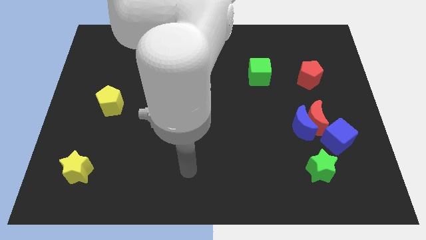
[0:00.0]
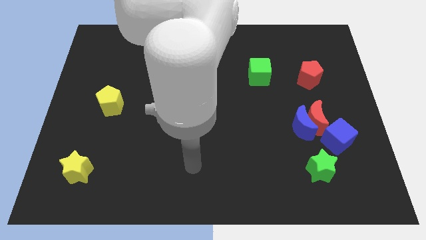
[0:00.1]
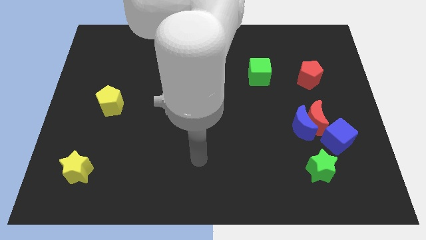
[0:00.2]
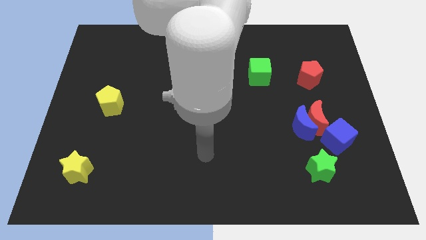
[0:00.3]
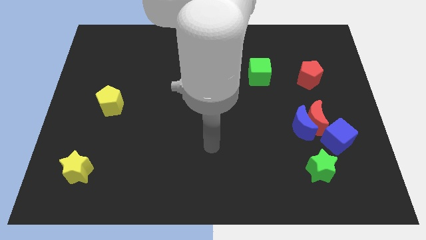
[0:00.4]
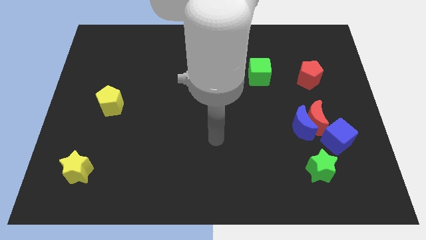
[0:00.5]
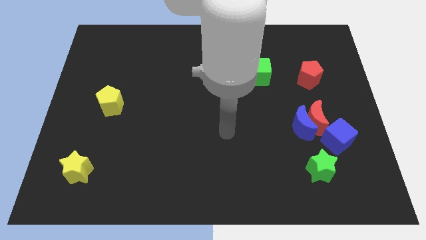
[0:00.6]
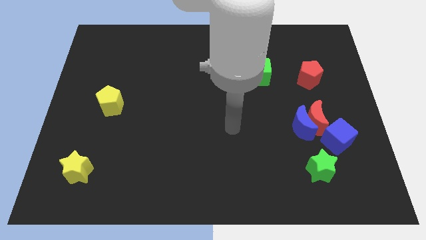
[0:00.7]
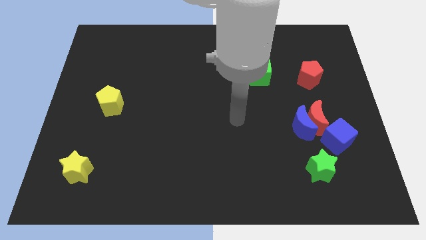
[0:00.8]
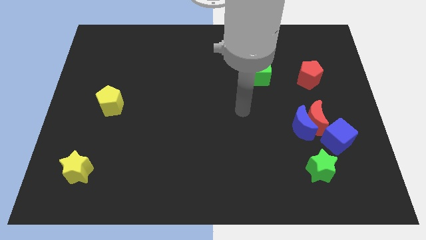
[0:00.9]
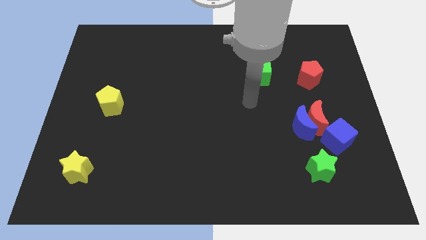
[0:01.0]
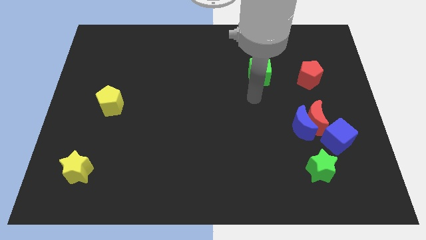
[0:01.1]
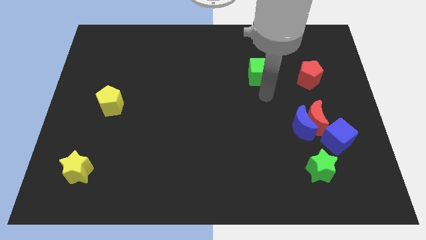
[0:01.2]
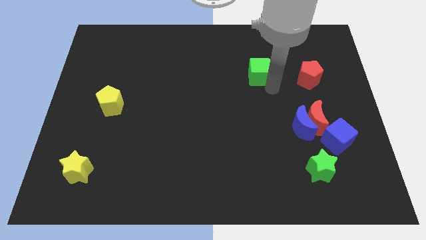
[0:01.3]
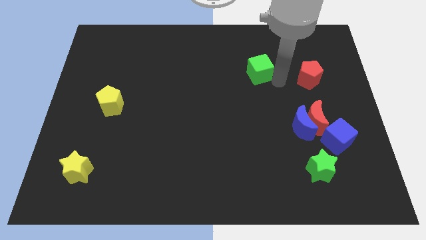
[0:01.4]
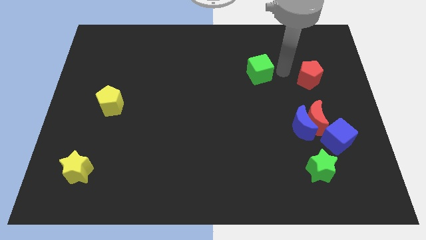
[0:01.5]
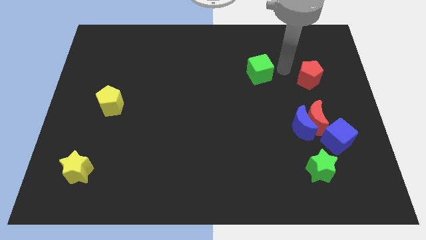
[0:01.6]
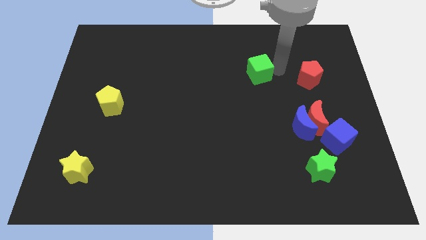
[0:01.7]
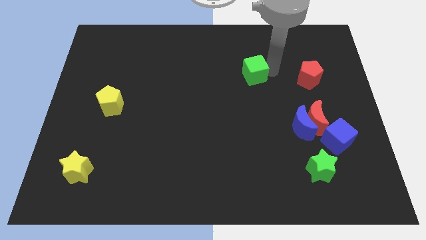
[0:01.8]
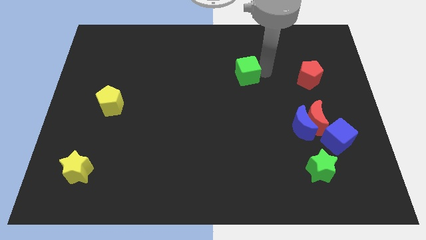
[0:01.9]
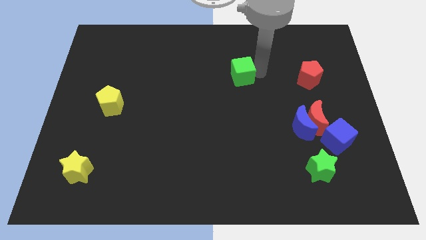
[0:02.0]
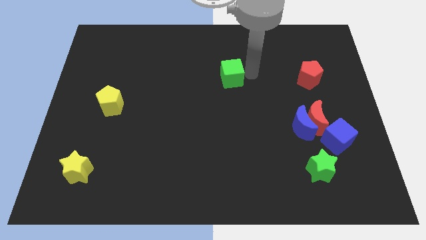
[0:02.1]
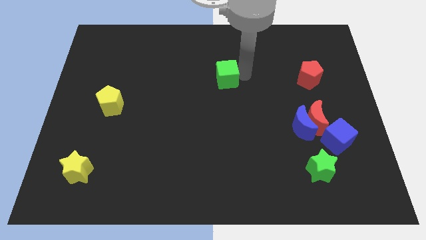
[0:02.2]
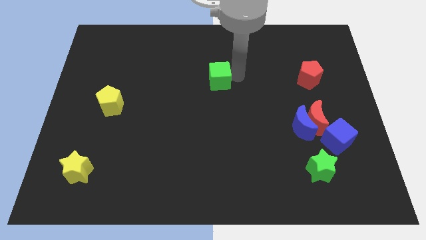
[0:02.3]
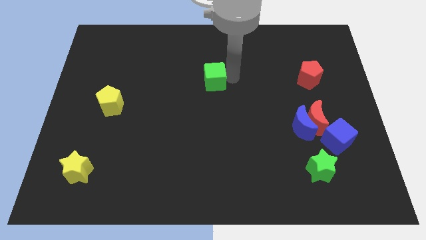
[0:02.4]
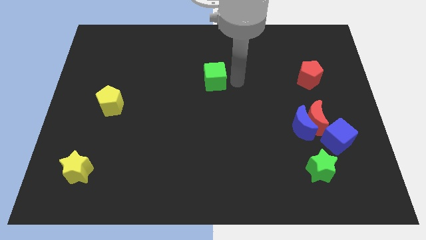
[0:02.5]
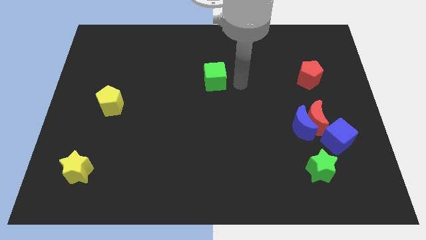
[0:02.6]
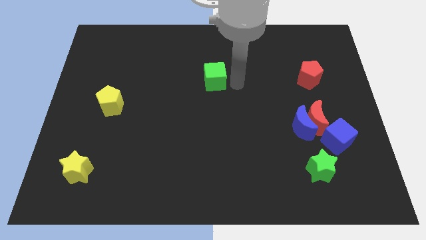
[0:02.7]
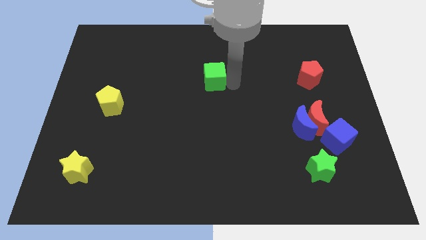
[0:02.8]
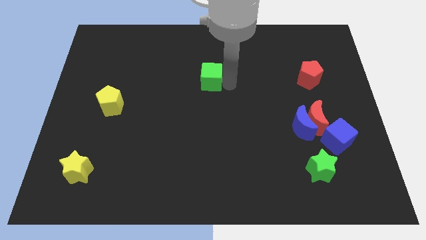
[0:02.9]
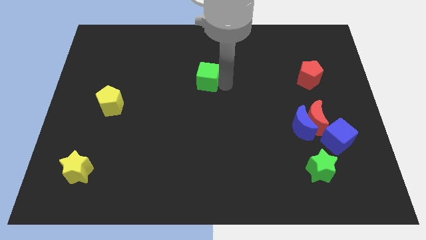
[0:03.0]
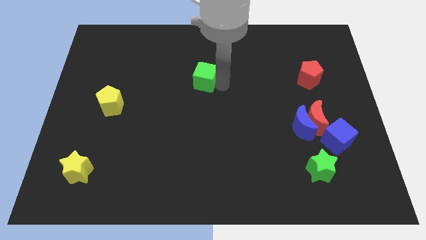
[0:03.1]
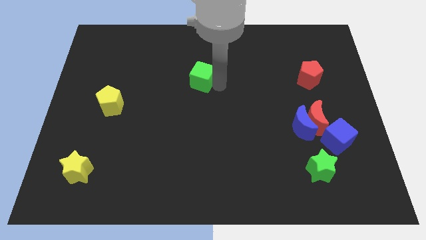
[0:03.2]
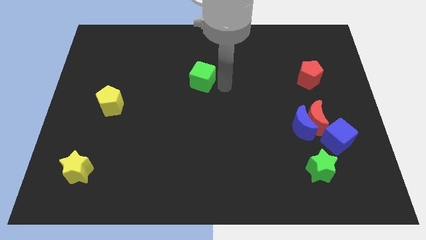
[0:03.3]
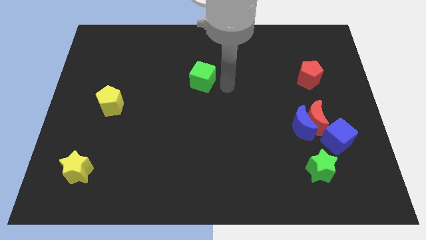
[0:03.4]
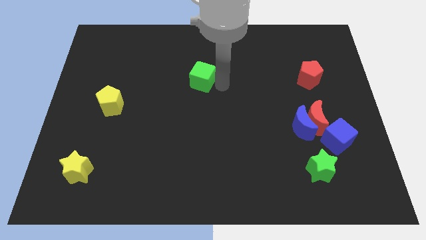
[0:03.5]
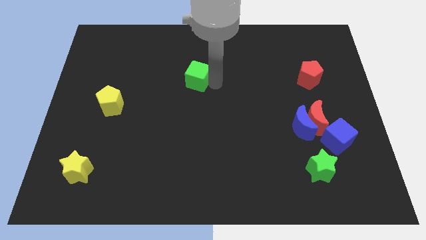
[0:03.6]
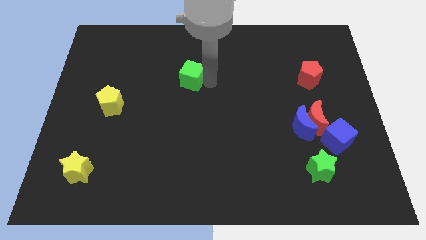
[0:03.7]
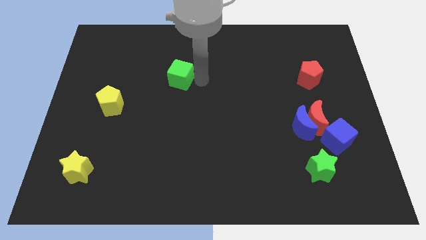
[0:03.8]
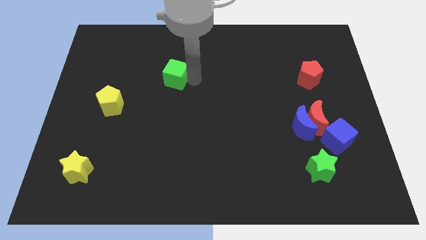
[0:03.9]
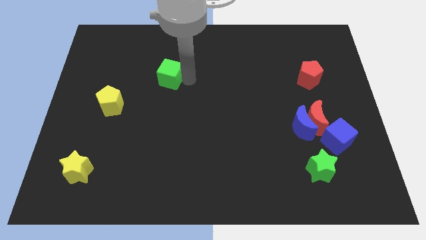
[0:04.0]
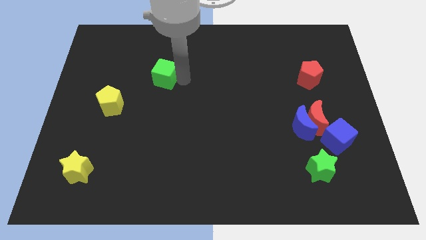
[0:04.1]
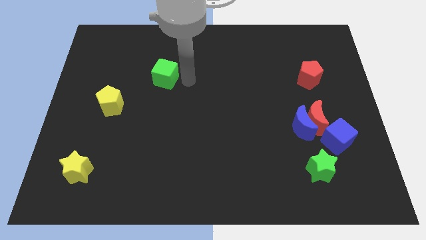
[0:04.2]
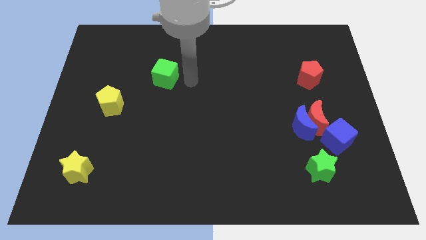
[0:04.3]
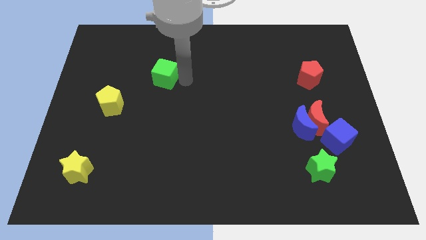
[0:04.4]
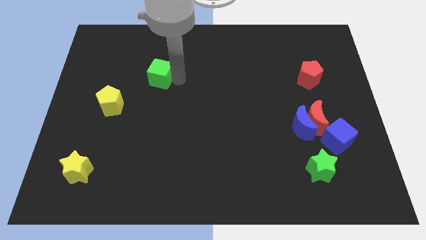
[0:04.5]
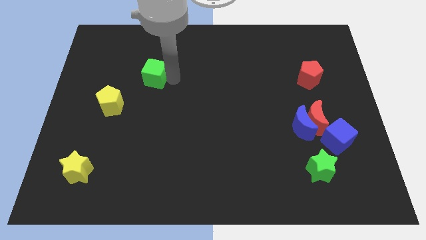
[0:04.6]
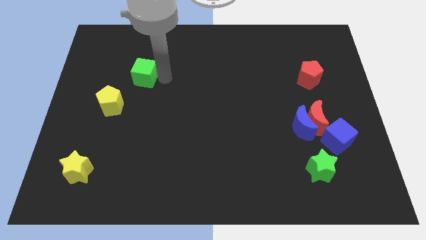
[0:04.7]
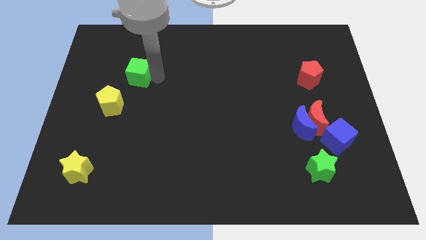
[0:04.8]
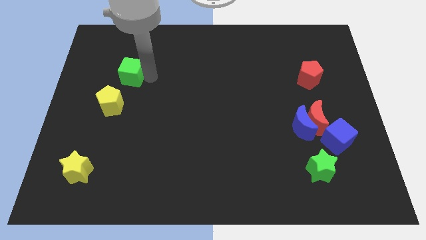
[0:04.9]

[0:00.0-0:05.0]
push the green cube above the yellow pentagon

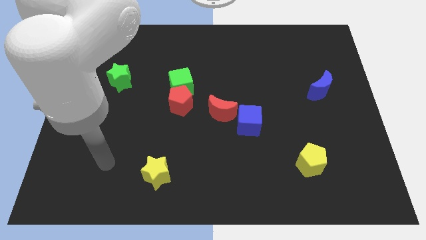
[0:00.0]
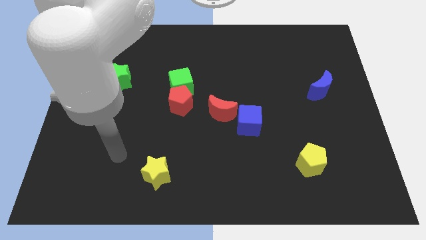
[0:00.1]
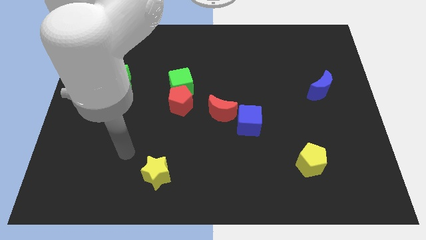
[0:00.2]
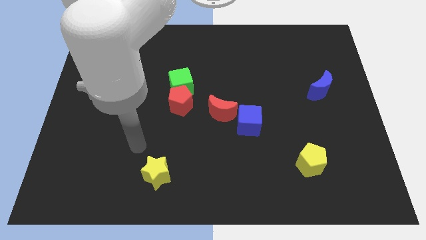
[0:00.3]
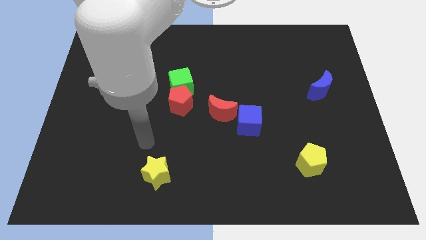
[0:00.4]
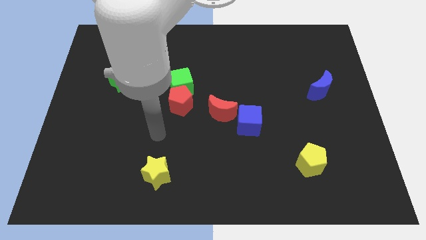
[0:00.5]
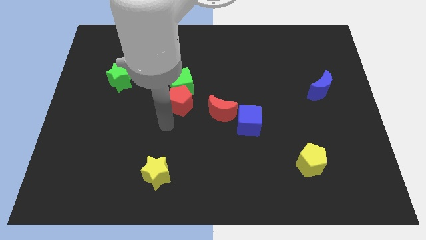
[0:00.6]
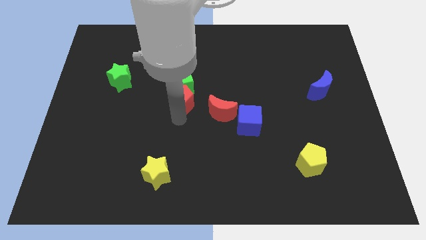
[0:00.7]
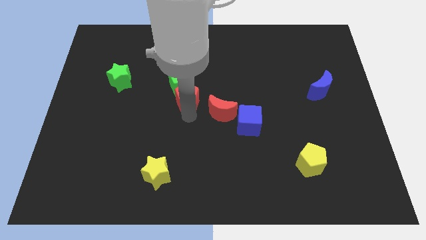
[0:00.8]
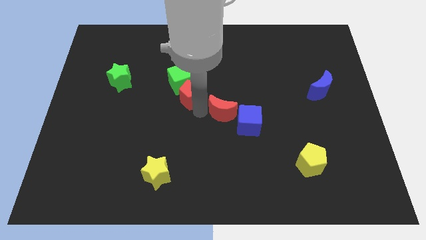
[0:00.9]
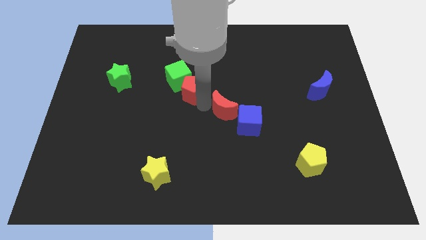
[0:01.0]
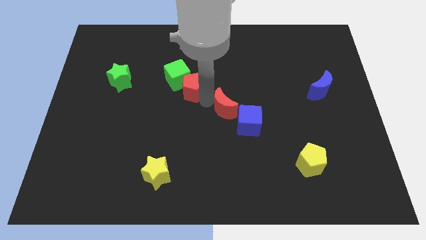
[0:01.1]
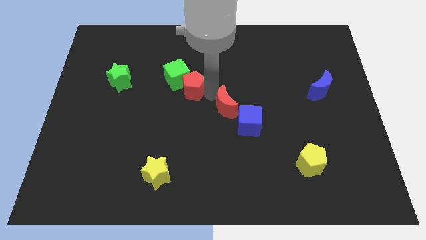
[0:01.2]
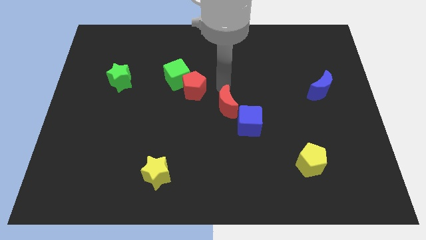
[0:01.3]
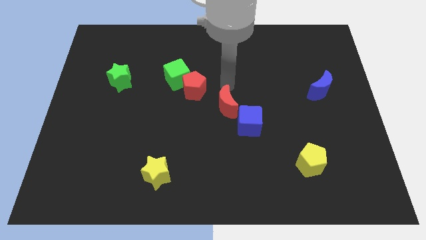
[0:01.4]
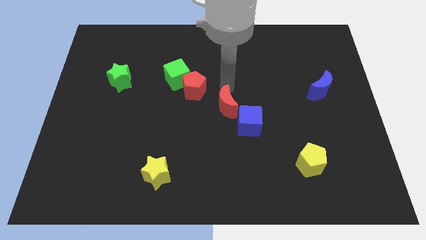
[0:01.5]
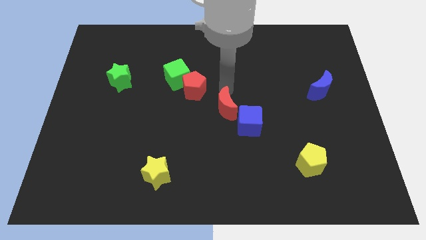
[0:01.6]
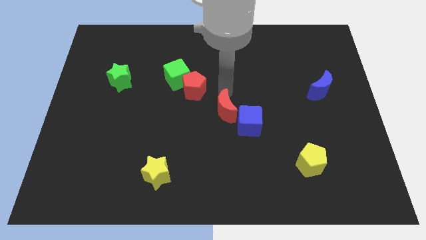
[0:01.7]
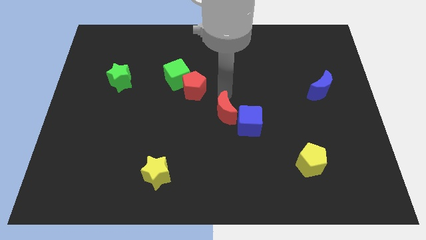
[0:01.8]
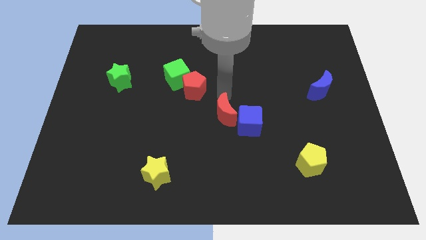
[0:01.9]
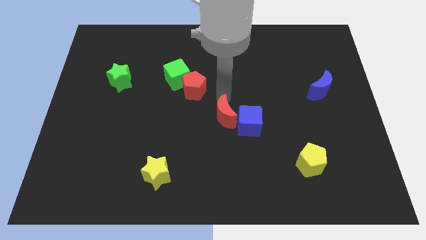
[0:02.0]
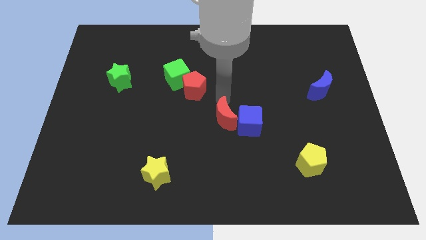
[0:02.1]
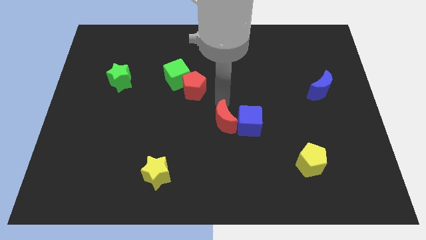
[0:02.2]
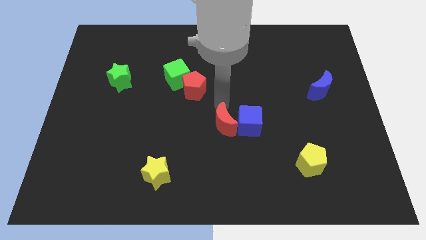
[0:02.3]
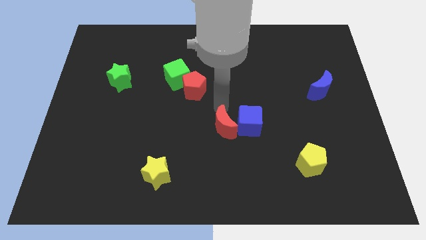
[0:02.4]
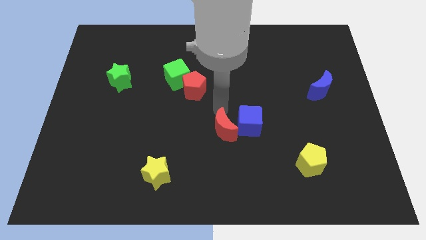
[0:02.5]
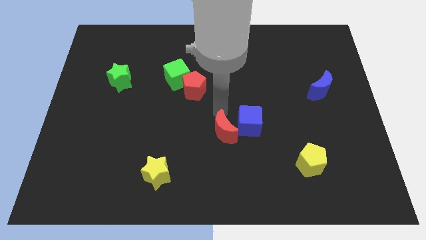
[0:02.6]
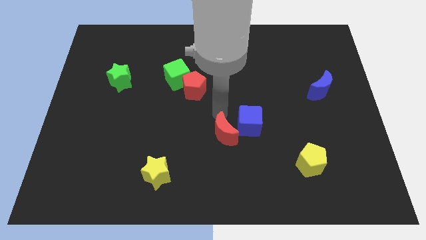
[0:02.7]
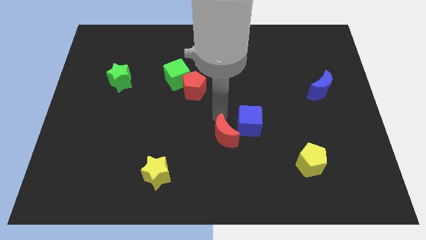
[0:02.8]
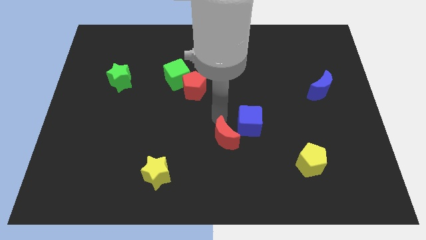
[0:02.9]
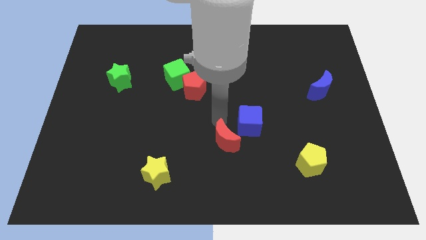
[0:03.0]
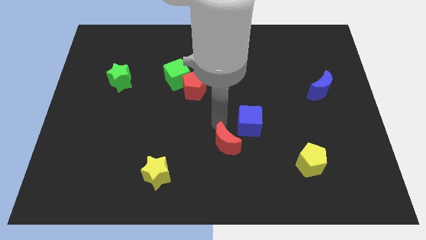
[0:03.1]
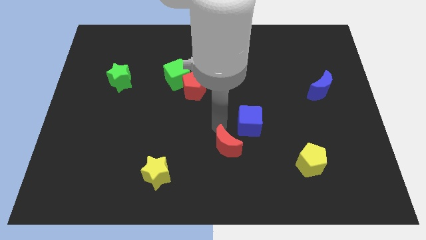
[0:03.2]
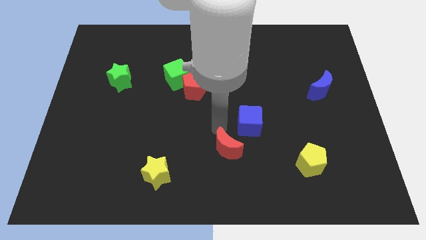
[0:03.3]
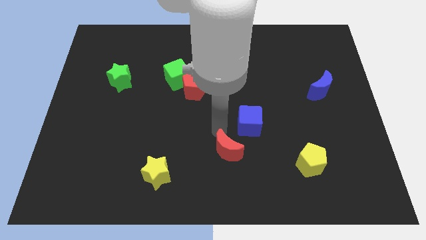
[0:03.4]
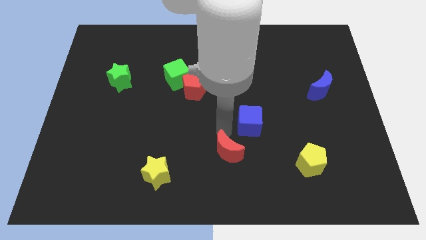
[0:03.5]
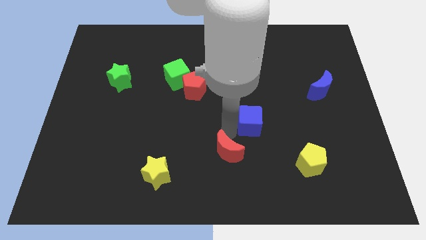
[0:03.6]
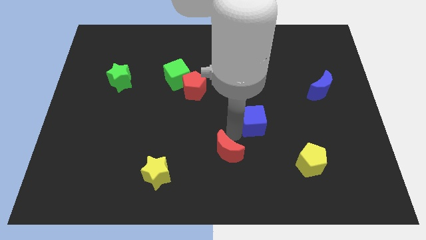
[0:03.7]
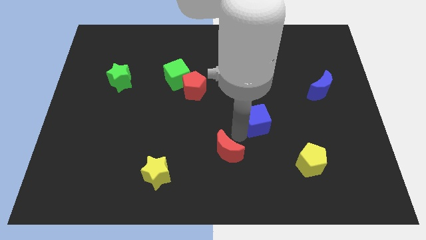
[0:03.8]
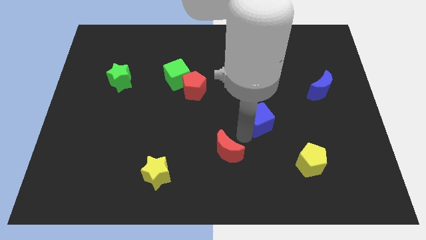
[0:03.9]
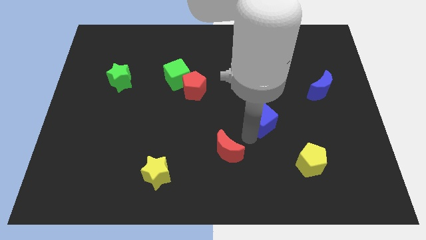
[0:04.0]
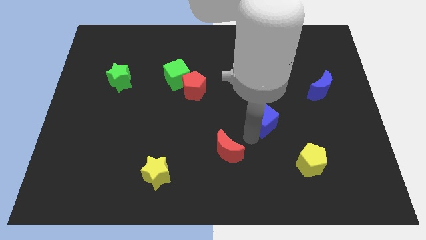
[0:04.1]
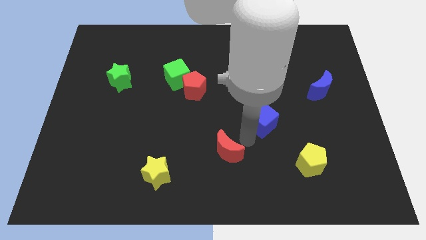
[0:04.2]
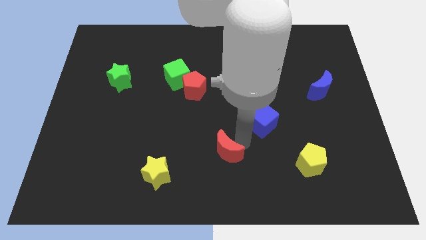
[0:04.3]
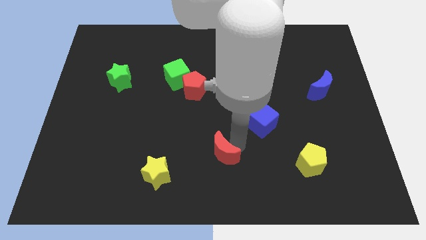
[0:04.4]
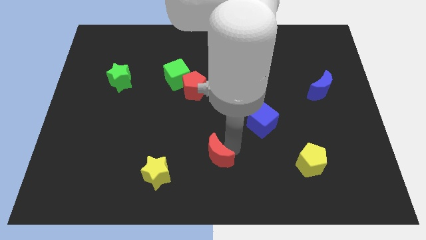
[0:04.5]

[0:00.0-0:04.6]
push the red moon right of the yellow star
